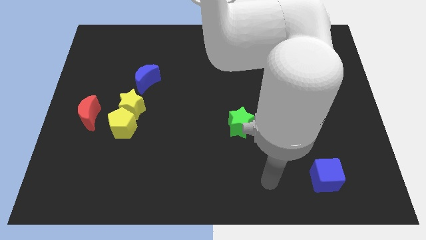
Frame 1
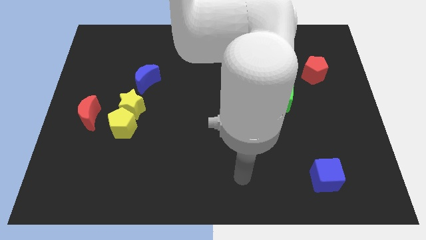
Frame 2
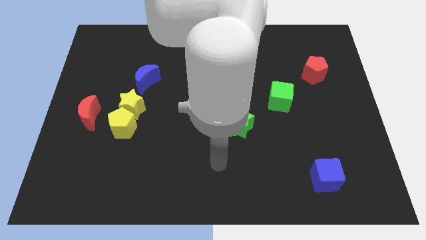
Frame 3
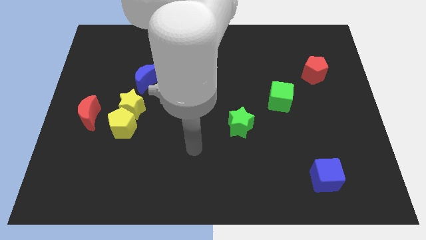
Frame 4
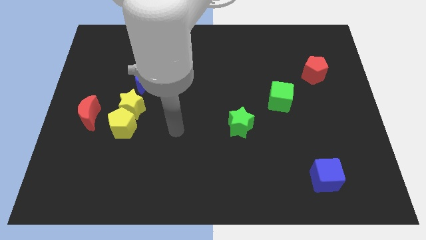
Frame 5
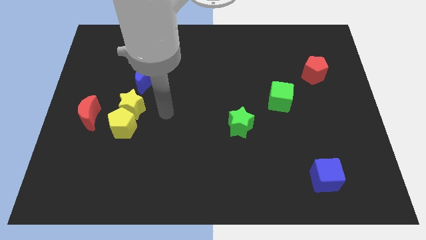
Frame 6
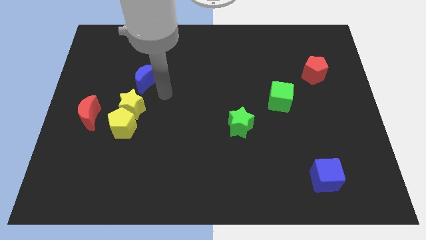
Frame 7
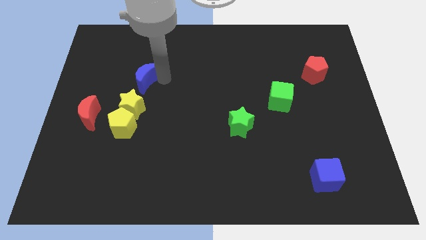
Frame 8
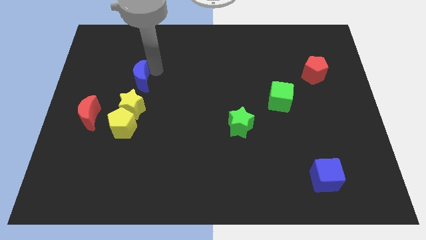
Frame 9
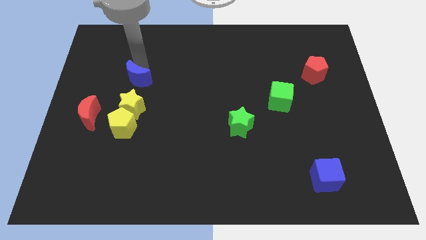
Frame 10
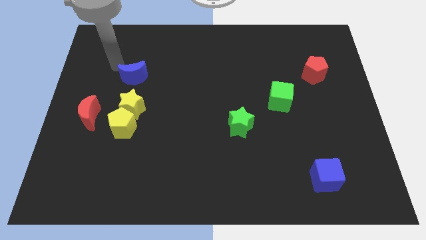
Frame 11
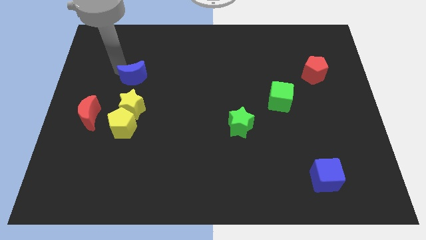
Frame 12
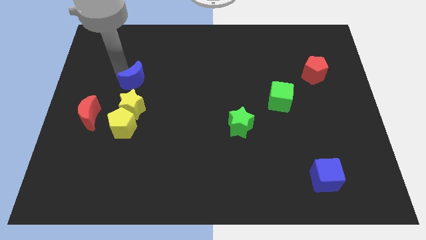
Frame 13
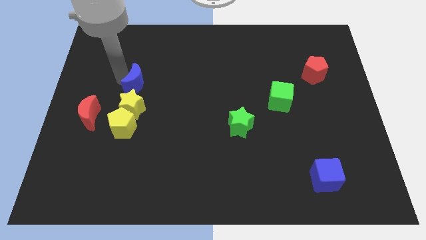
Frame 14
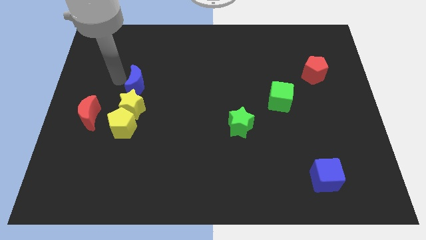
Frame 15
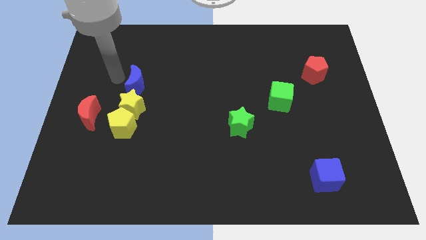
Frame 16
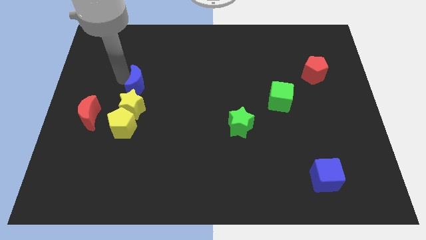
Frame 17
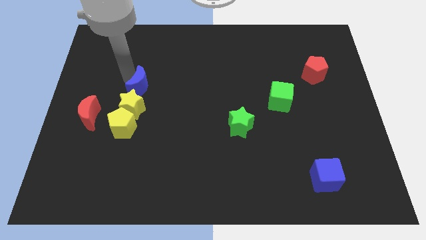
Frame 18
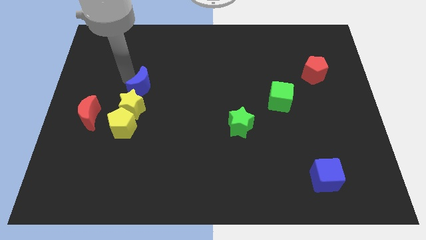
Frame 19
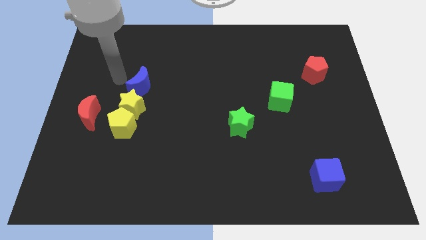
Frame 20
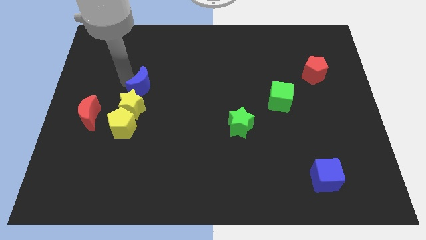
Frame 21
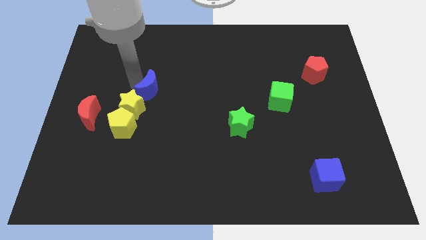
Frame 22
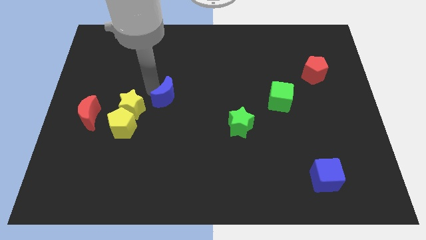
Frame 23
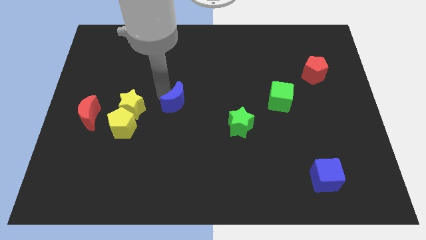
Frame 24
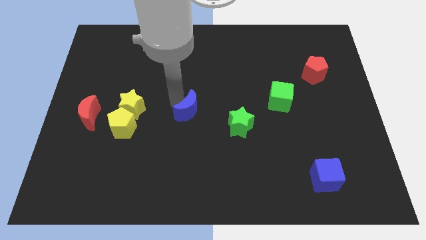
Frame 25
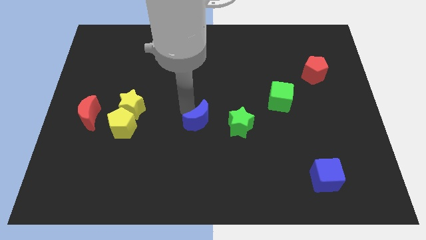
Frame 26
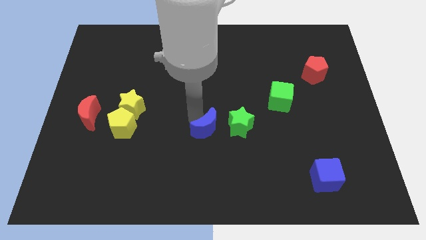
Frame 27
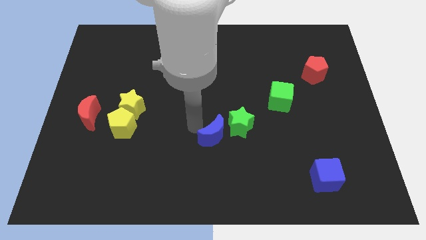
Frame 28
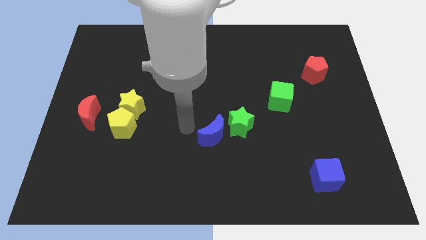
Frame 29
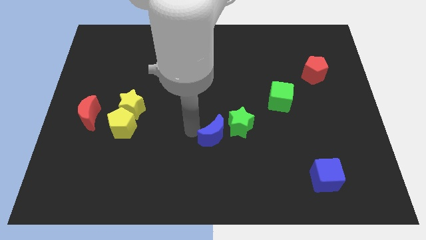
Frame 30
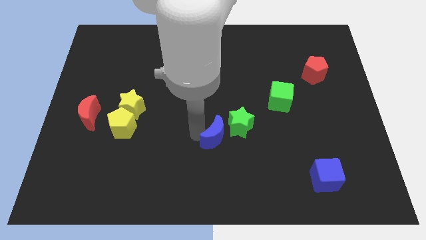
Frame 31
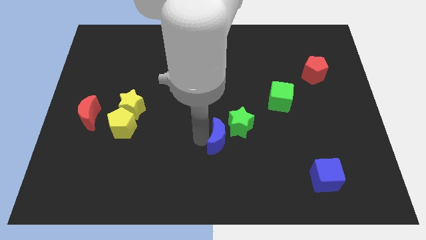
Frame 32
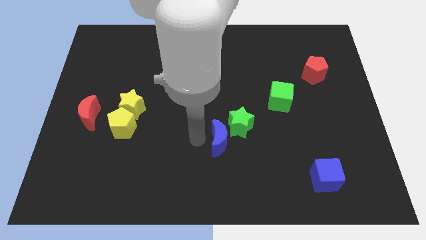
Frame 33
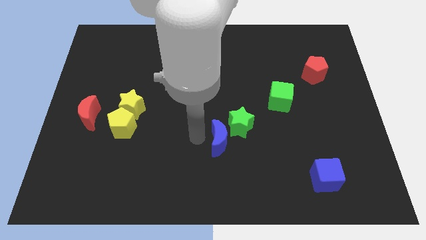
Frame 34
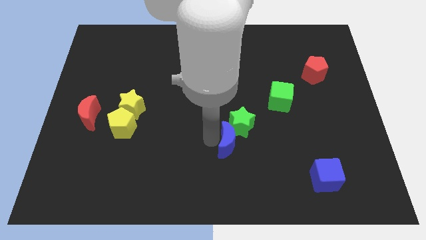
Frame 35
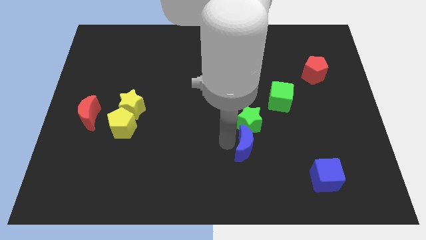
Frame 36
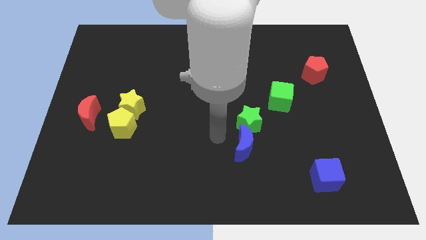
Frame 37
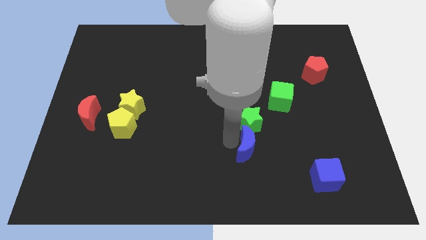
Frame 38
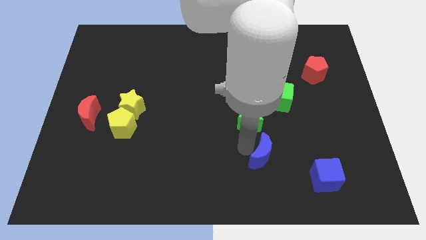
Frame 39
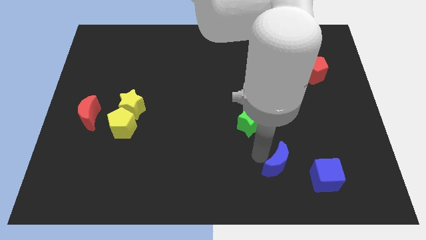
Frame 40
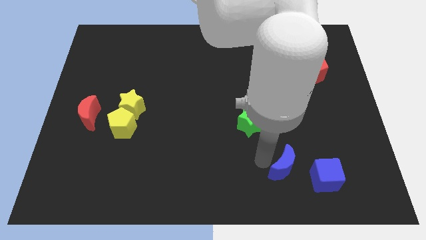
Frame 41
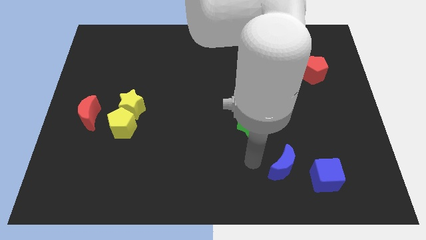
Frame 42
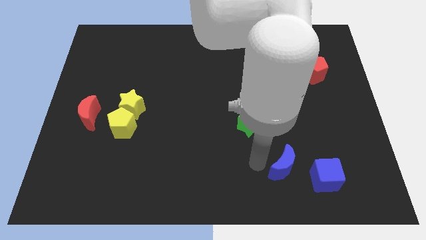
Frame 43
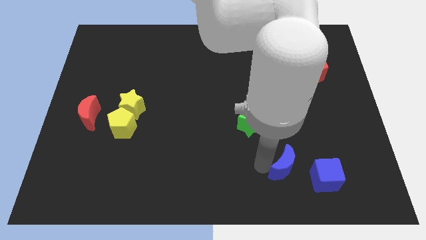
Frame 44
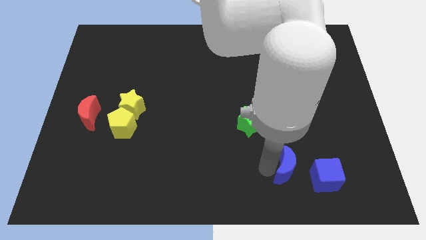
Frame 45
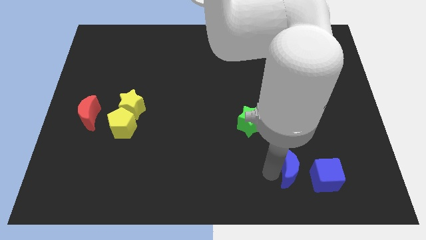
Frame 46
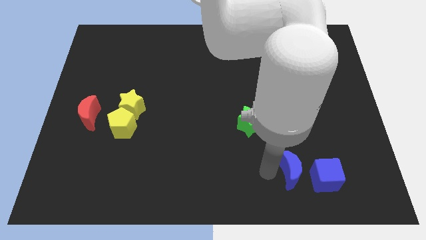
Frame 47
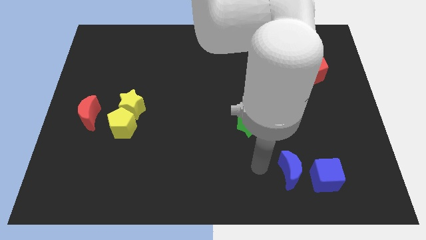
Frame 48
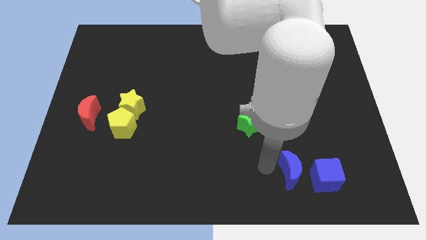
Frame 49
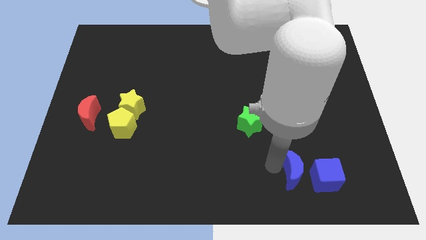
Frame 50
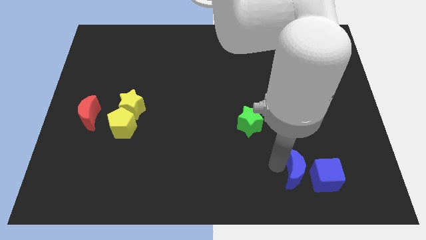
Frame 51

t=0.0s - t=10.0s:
slide the blue moon towards the blue cube

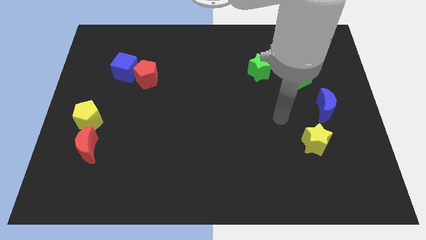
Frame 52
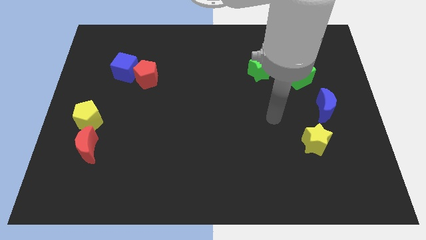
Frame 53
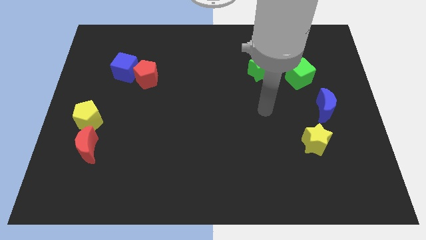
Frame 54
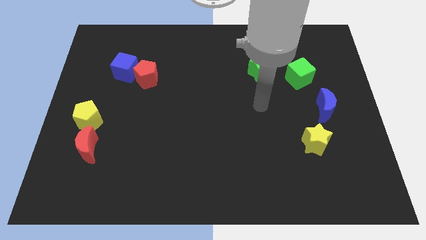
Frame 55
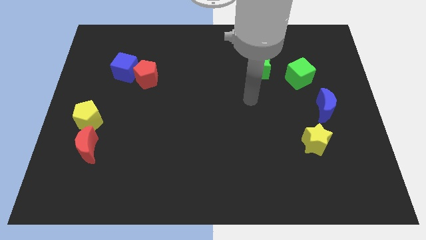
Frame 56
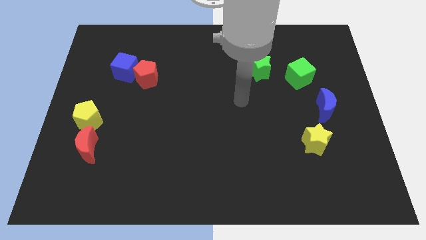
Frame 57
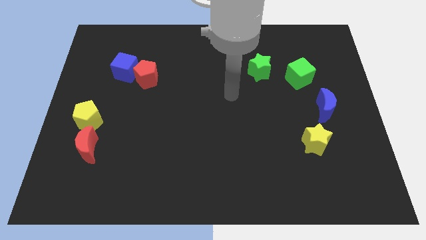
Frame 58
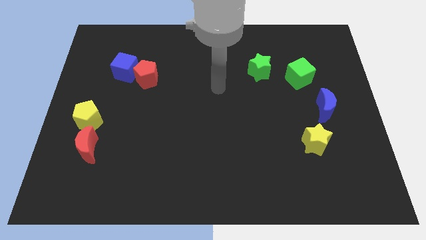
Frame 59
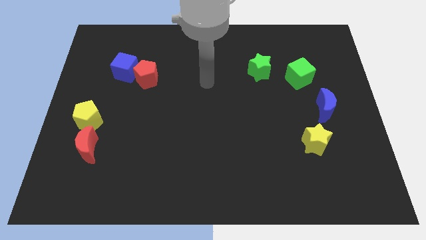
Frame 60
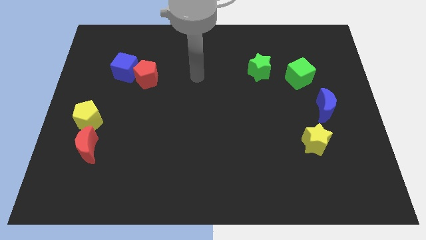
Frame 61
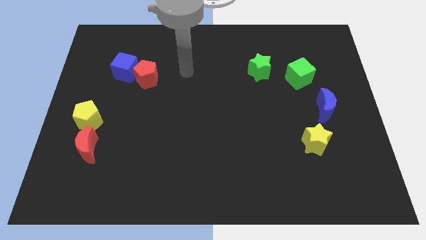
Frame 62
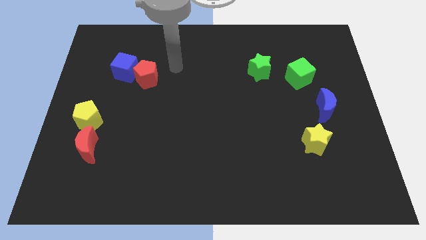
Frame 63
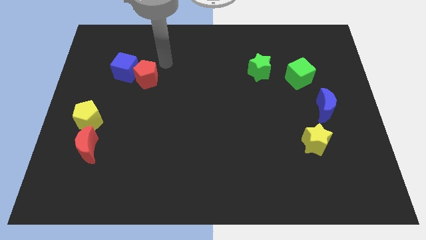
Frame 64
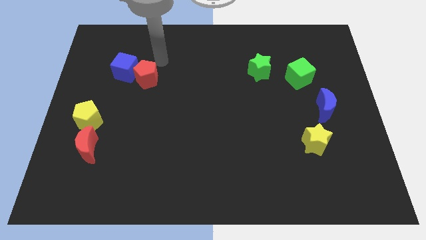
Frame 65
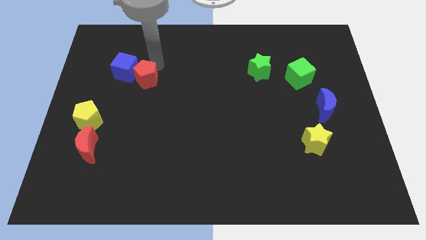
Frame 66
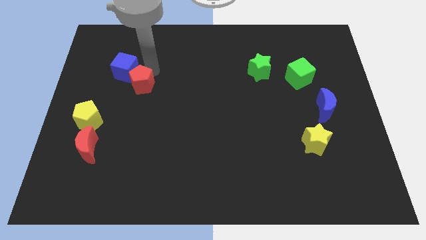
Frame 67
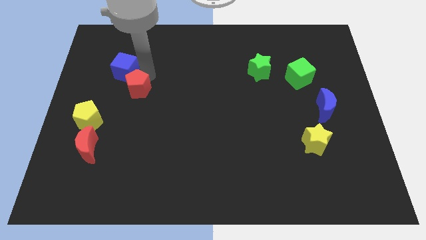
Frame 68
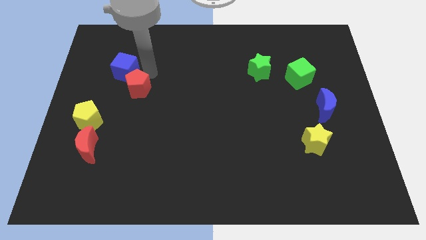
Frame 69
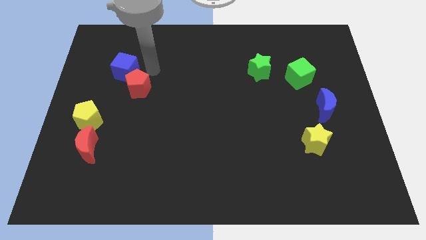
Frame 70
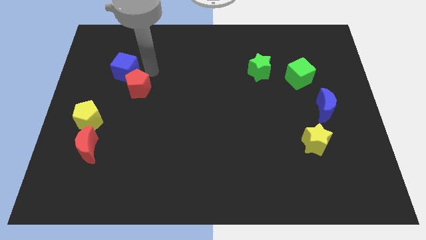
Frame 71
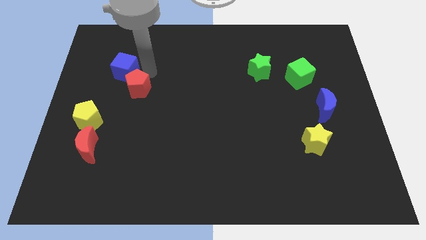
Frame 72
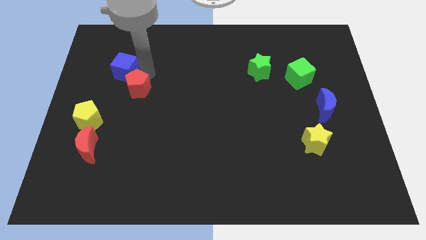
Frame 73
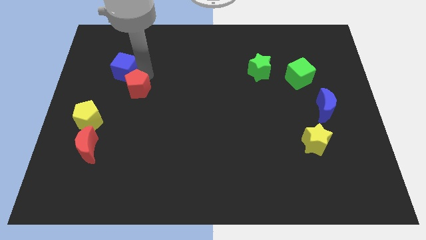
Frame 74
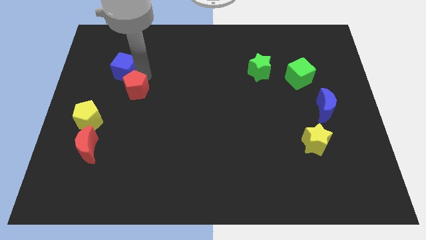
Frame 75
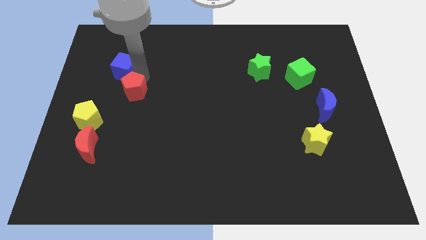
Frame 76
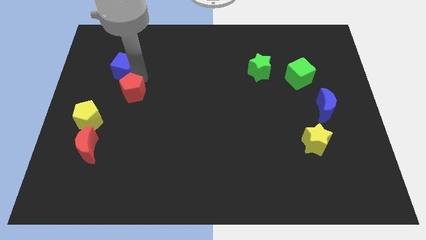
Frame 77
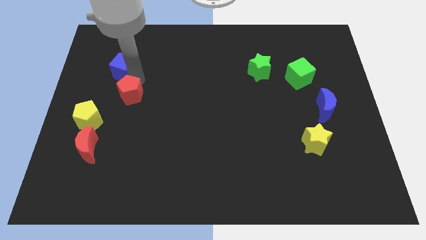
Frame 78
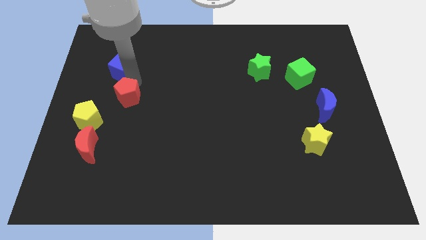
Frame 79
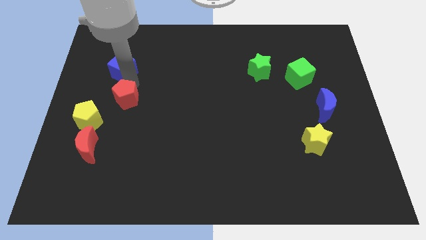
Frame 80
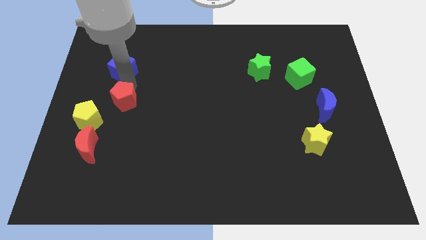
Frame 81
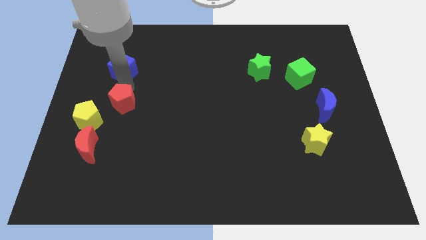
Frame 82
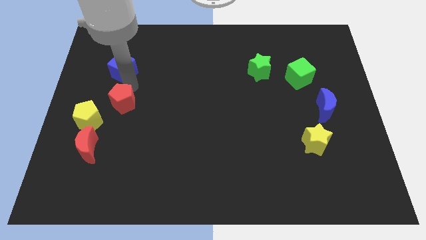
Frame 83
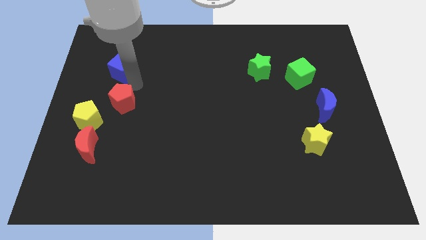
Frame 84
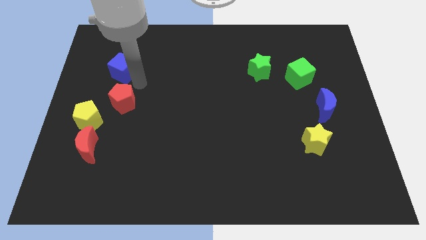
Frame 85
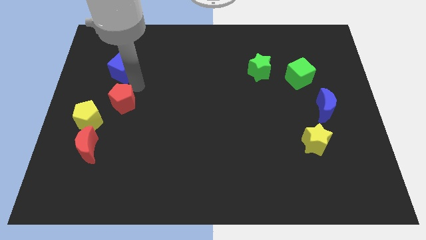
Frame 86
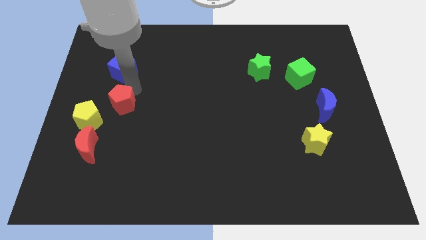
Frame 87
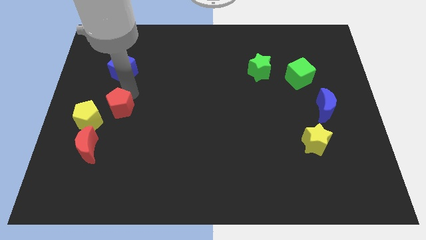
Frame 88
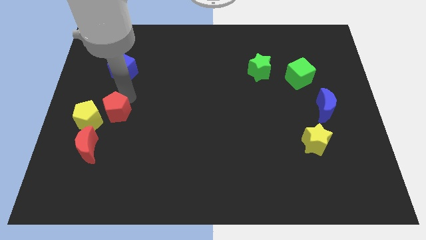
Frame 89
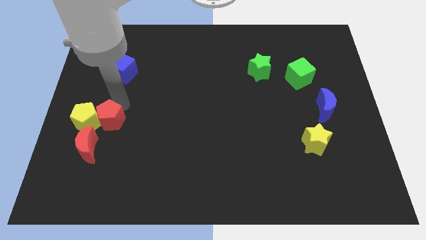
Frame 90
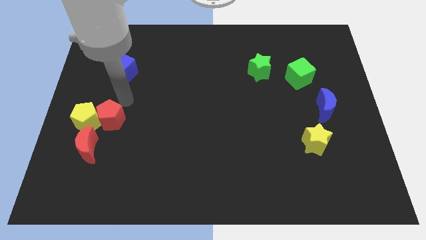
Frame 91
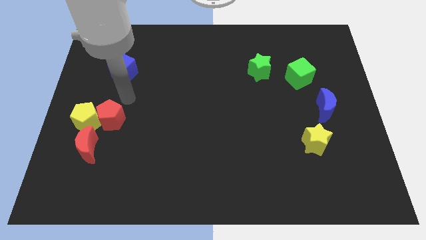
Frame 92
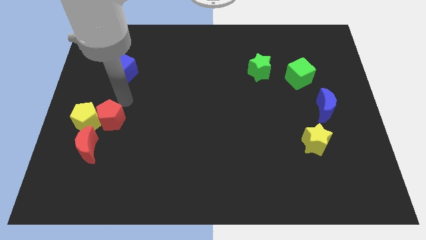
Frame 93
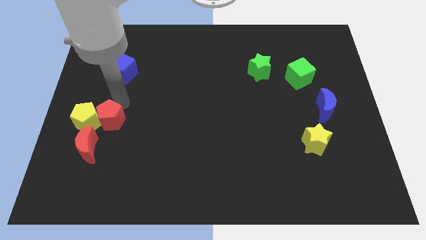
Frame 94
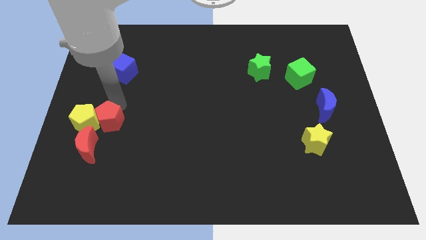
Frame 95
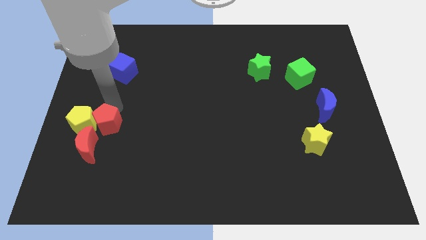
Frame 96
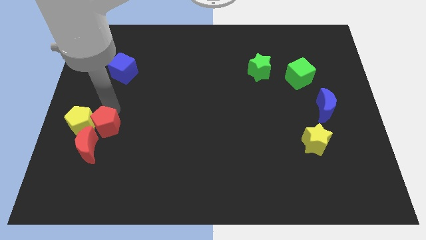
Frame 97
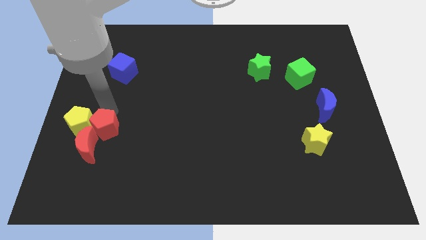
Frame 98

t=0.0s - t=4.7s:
put the red pentagon towards the red moon
